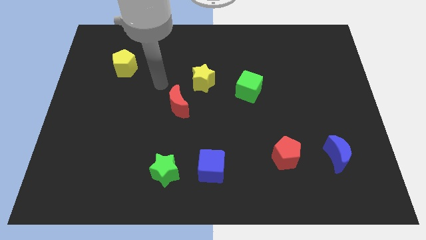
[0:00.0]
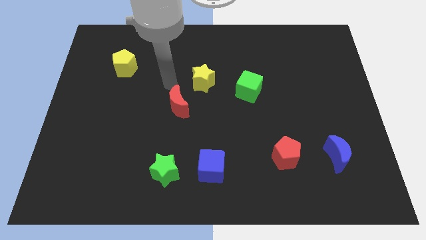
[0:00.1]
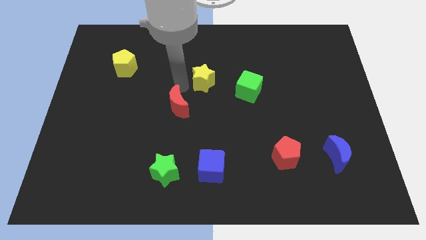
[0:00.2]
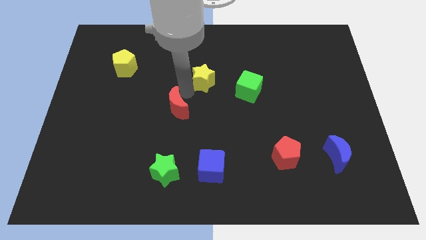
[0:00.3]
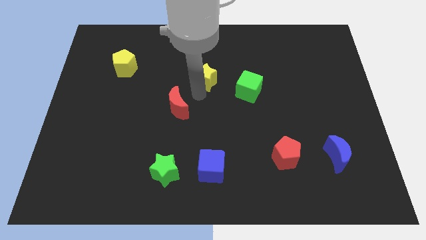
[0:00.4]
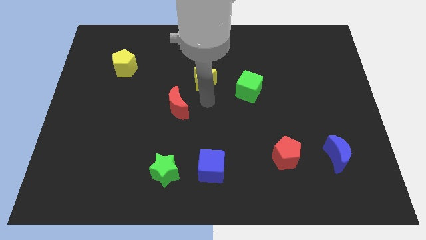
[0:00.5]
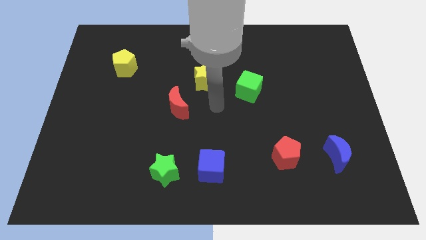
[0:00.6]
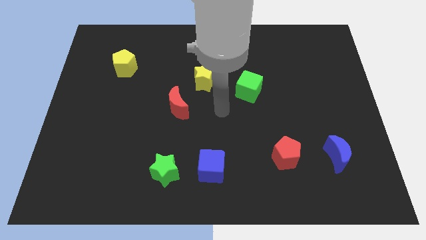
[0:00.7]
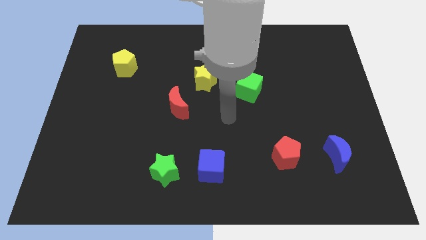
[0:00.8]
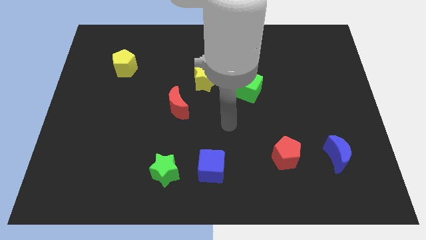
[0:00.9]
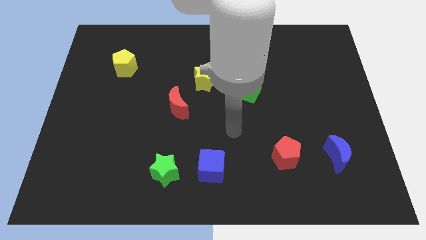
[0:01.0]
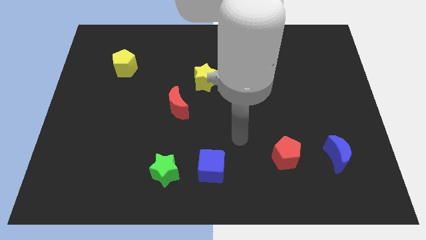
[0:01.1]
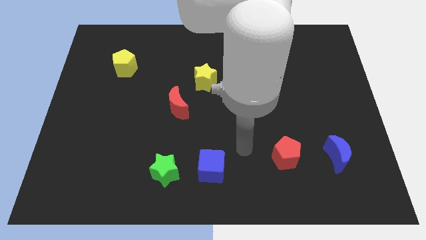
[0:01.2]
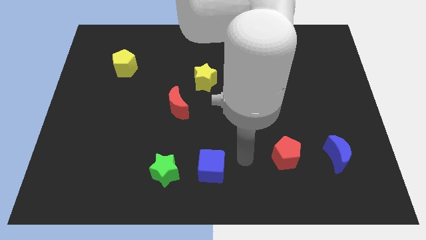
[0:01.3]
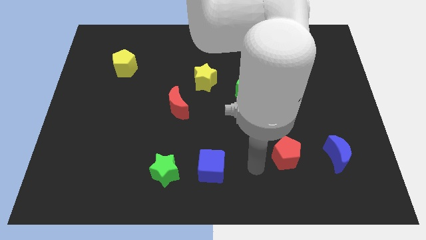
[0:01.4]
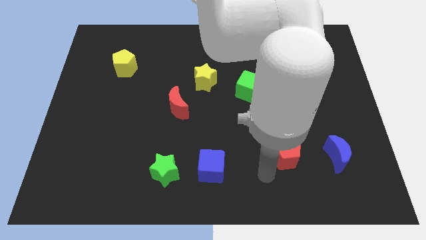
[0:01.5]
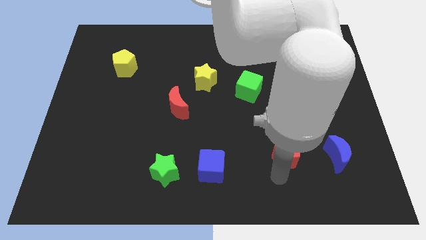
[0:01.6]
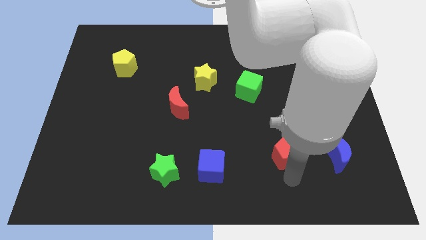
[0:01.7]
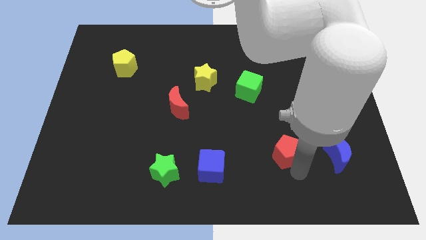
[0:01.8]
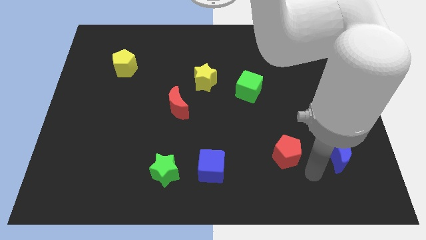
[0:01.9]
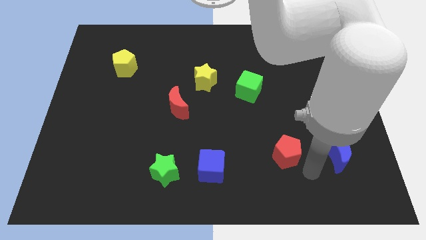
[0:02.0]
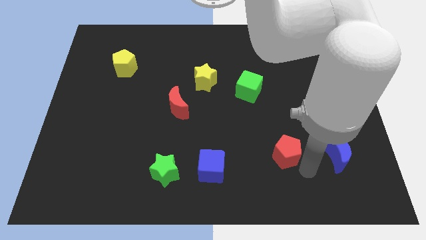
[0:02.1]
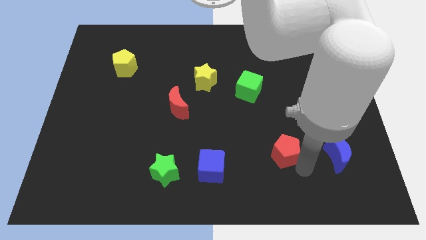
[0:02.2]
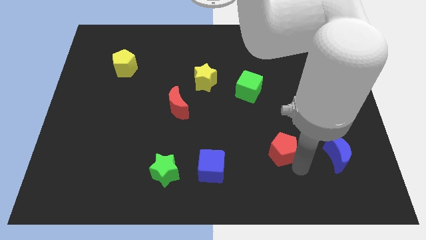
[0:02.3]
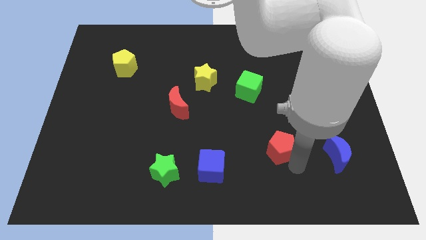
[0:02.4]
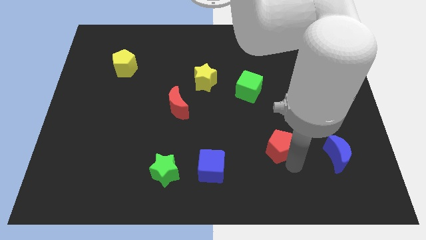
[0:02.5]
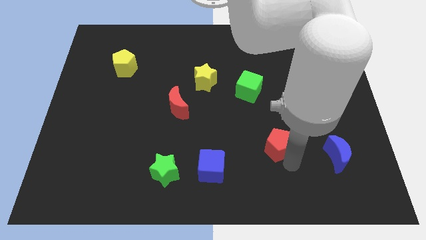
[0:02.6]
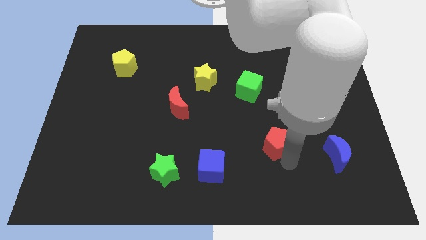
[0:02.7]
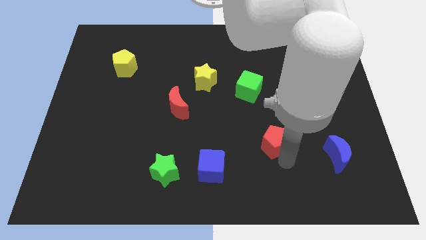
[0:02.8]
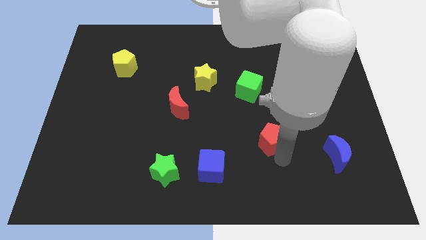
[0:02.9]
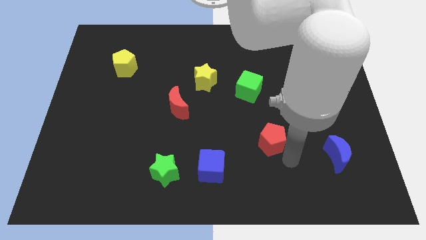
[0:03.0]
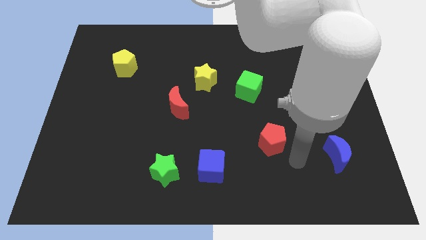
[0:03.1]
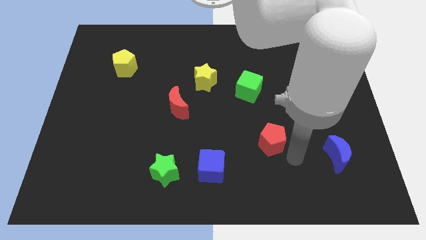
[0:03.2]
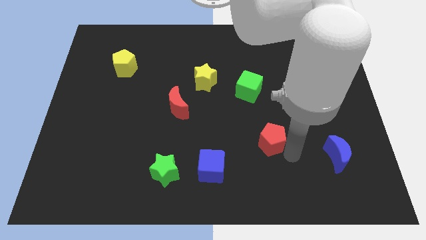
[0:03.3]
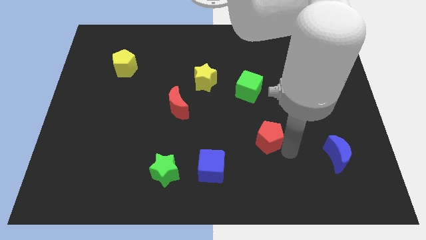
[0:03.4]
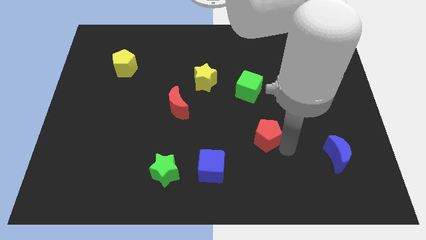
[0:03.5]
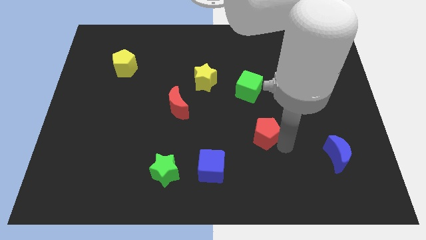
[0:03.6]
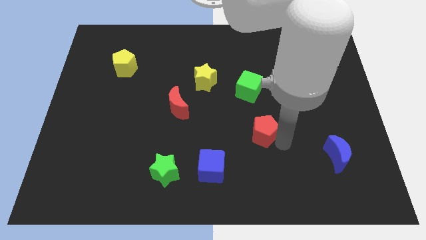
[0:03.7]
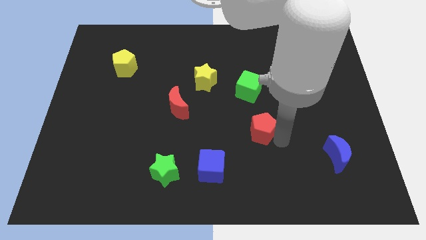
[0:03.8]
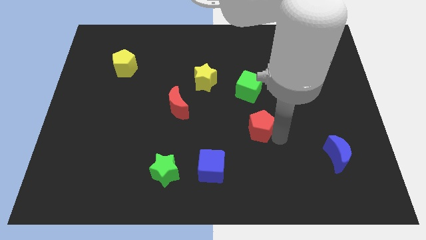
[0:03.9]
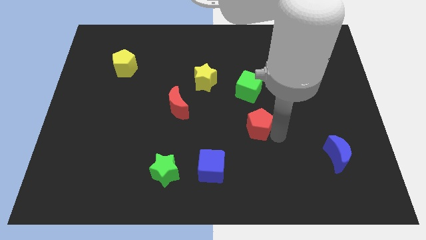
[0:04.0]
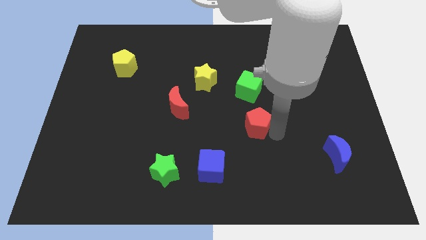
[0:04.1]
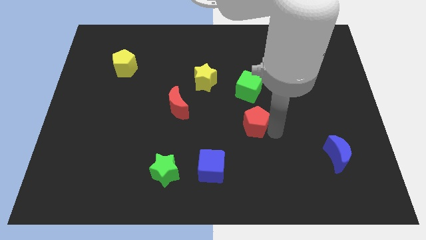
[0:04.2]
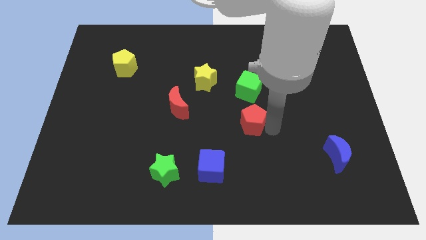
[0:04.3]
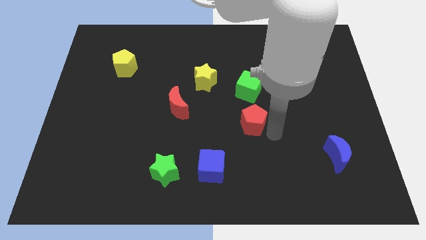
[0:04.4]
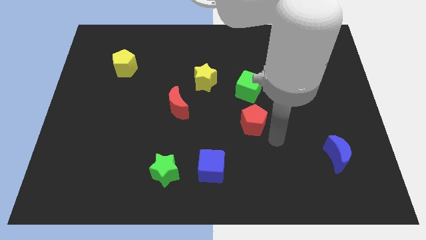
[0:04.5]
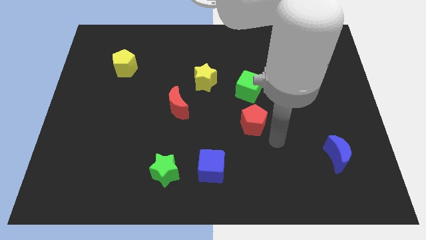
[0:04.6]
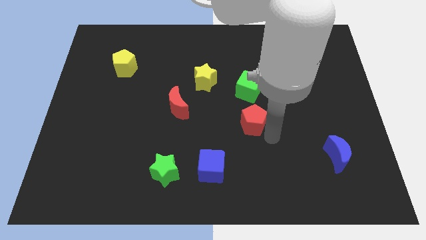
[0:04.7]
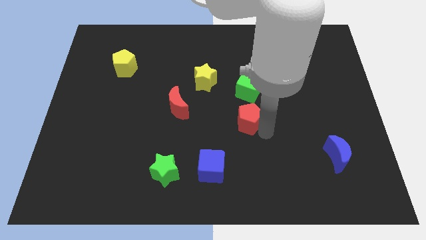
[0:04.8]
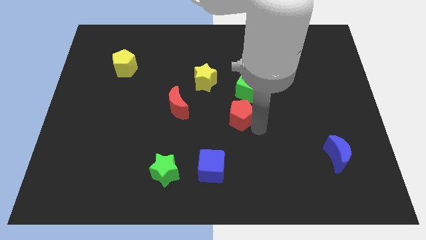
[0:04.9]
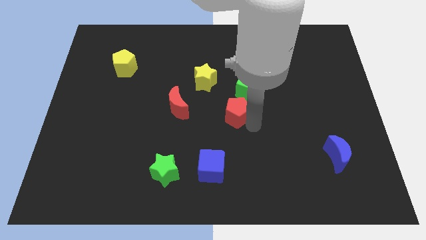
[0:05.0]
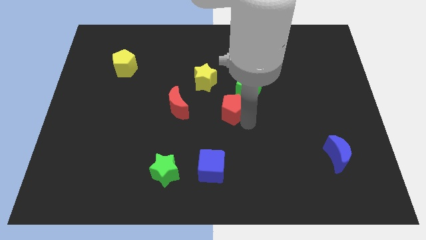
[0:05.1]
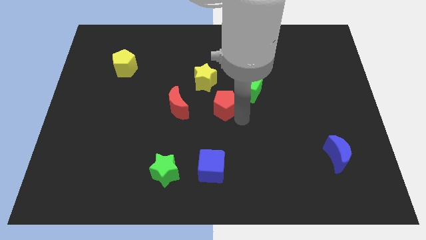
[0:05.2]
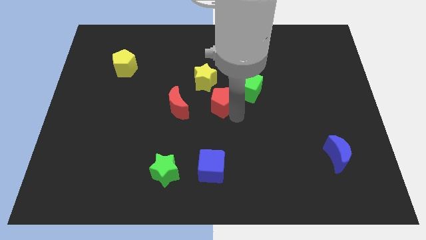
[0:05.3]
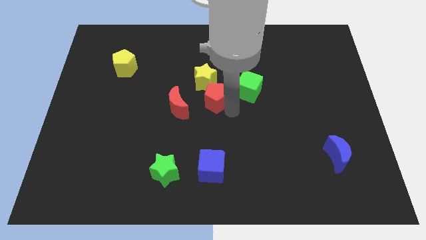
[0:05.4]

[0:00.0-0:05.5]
move the red pentagon up and to the left

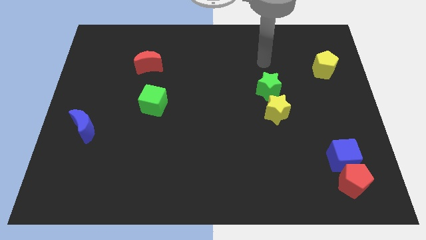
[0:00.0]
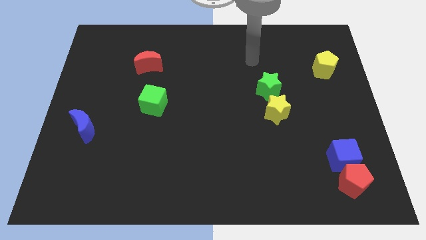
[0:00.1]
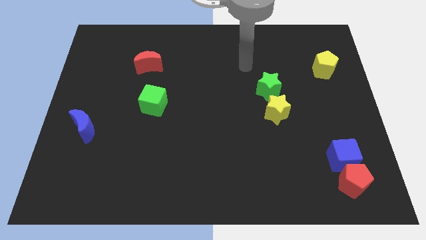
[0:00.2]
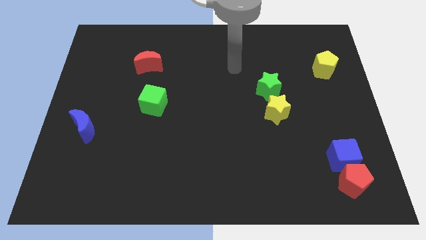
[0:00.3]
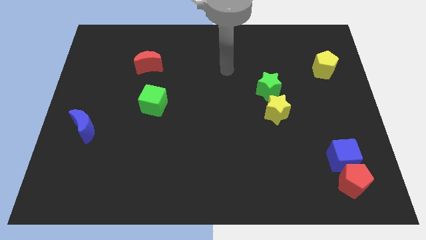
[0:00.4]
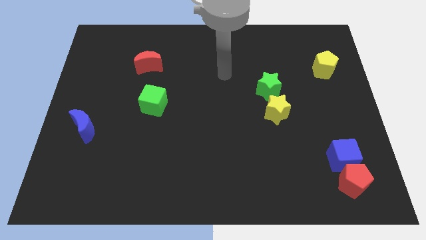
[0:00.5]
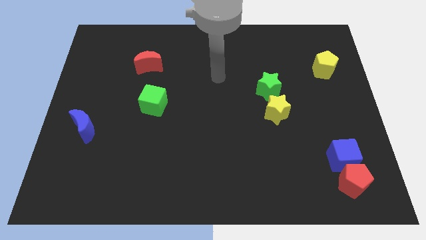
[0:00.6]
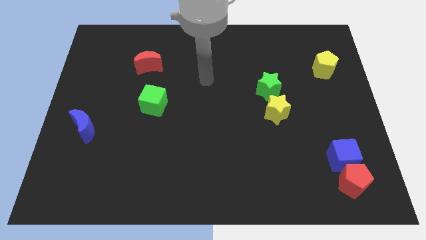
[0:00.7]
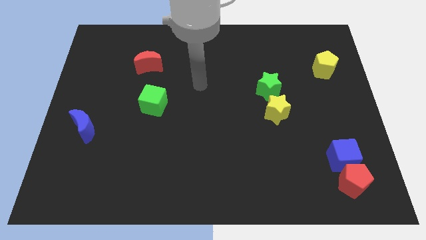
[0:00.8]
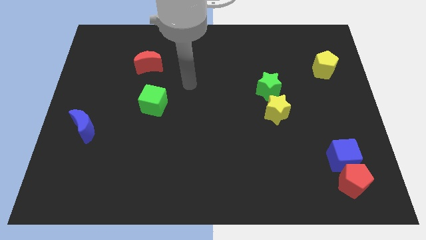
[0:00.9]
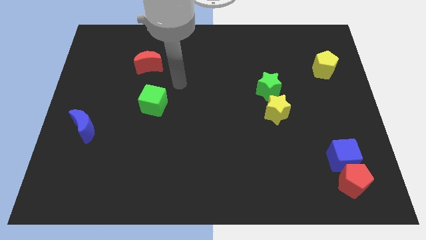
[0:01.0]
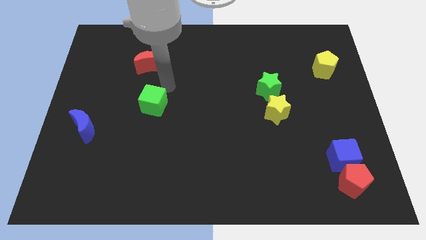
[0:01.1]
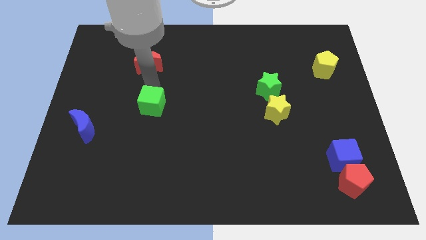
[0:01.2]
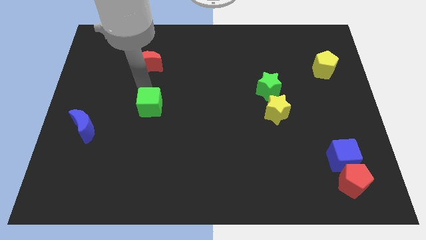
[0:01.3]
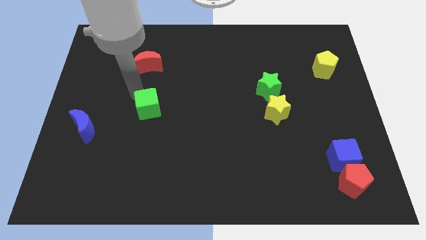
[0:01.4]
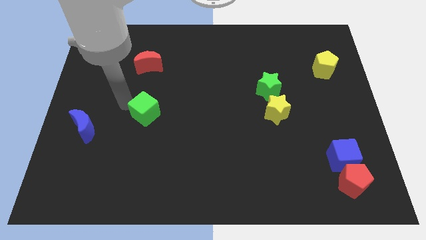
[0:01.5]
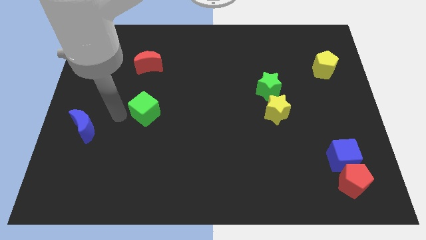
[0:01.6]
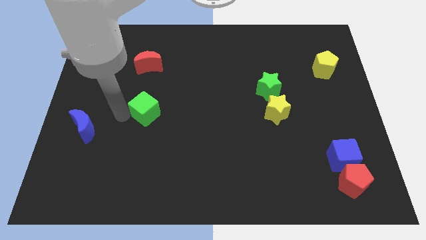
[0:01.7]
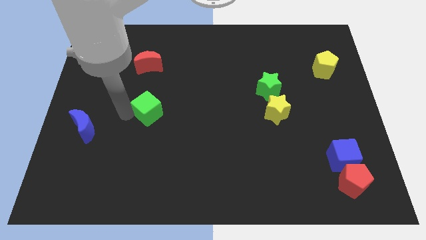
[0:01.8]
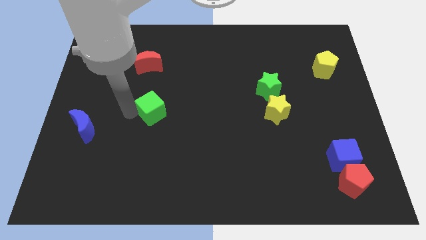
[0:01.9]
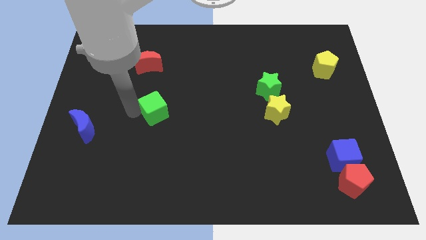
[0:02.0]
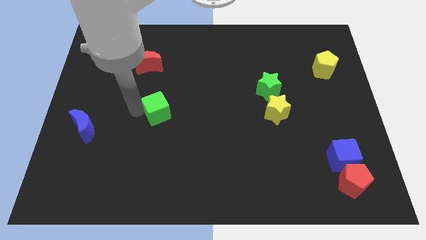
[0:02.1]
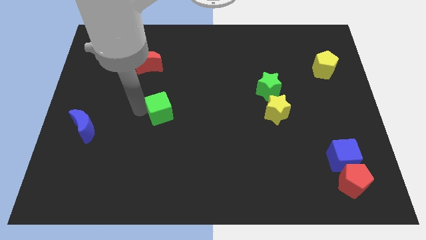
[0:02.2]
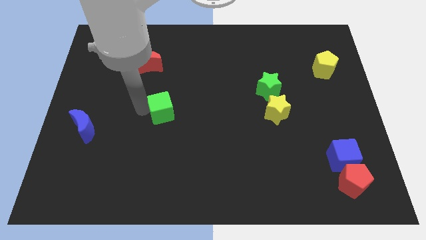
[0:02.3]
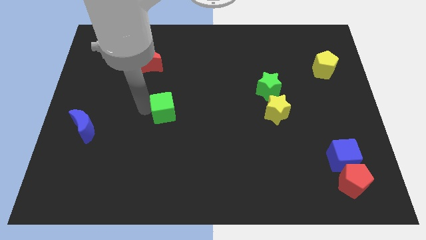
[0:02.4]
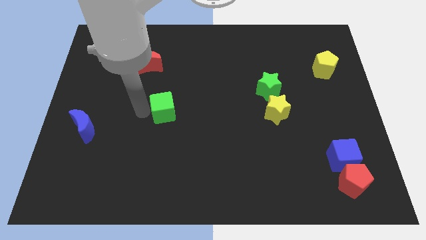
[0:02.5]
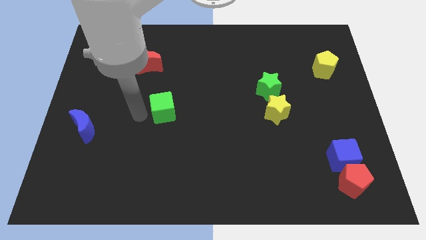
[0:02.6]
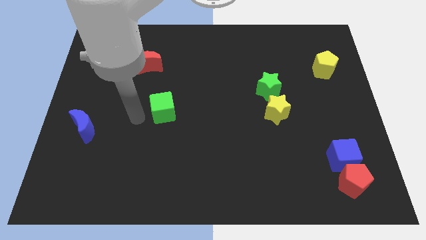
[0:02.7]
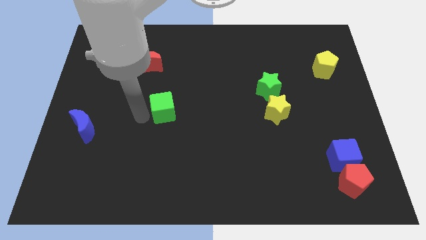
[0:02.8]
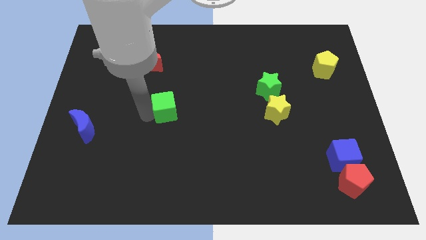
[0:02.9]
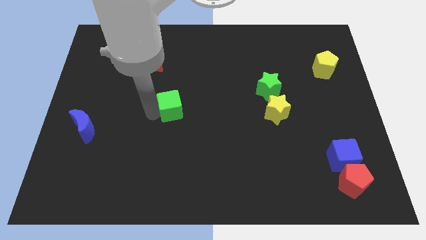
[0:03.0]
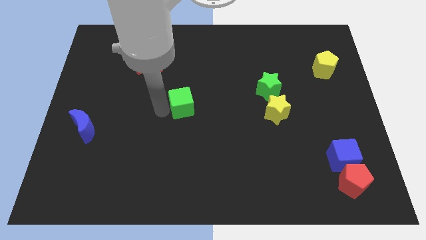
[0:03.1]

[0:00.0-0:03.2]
push the green cube right somewhat
